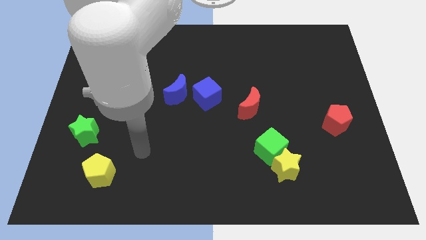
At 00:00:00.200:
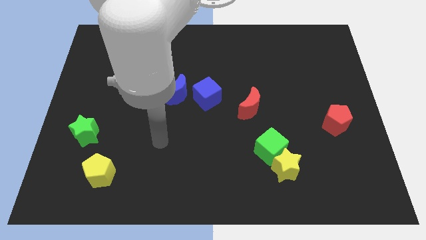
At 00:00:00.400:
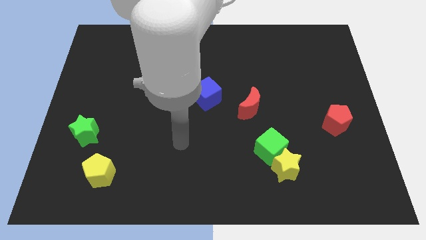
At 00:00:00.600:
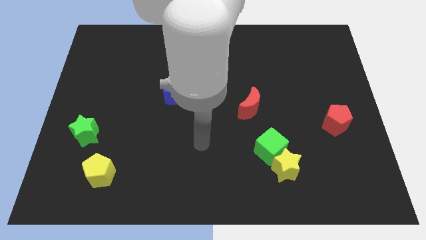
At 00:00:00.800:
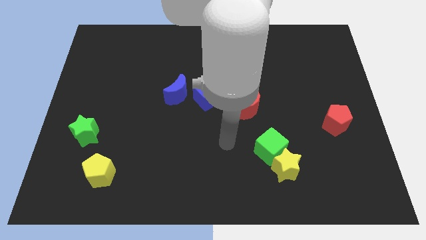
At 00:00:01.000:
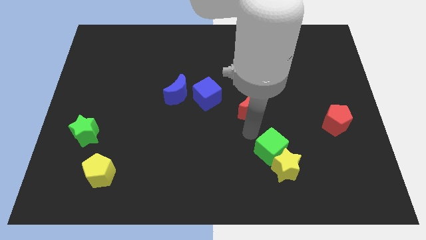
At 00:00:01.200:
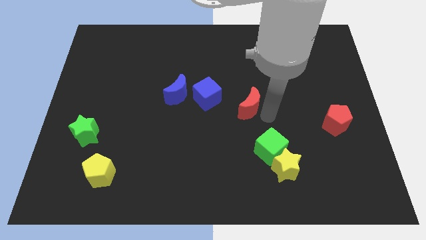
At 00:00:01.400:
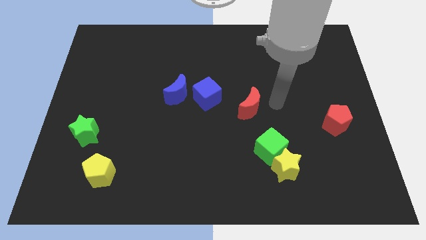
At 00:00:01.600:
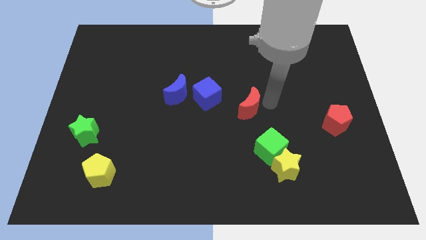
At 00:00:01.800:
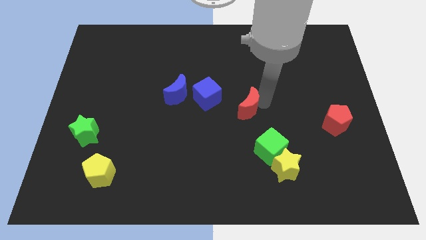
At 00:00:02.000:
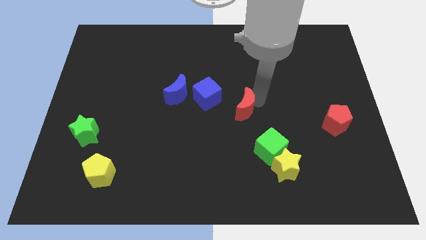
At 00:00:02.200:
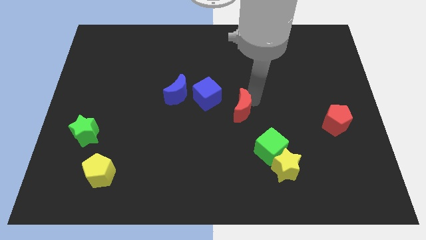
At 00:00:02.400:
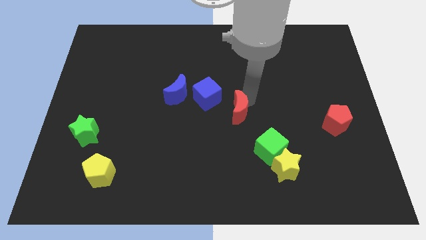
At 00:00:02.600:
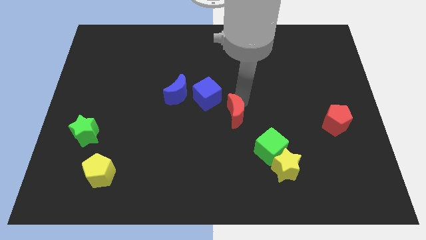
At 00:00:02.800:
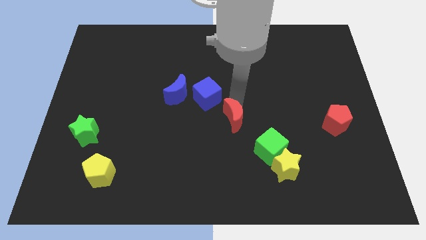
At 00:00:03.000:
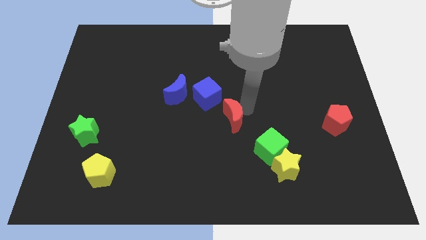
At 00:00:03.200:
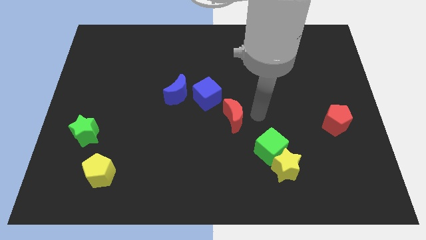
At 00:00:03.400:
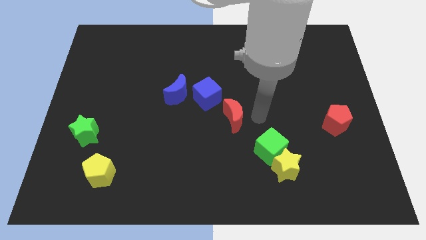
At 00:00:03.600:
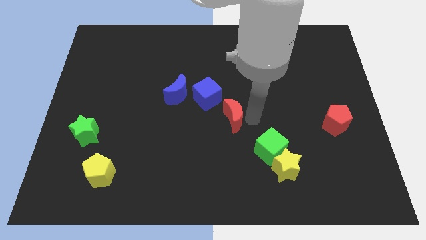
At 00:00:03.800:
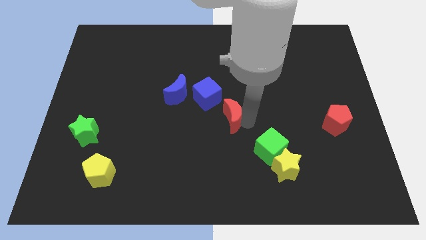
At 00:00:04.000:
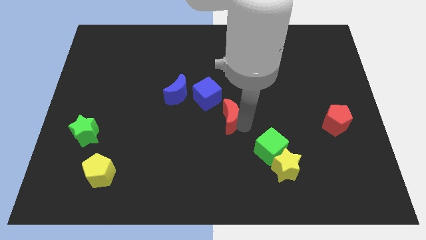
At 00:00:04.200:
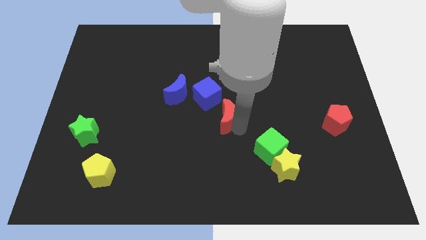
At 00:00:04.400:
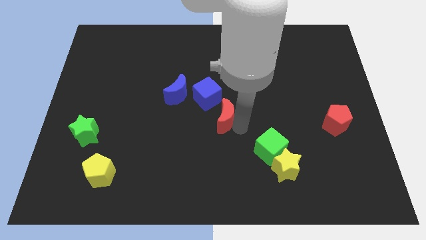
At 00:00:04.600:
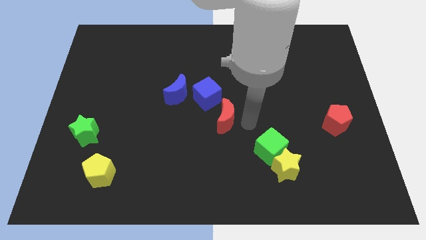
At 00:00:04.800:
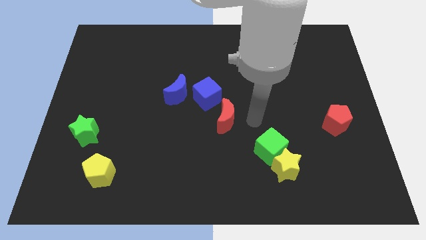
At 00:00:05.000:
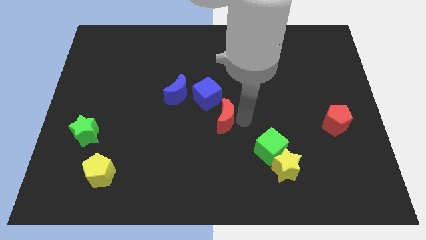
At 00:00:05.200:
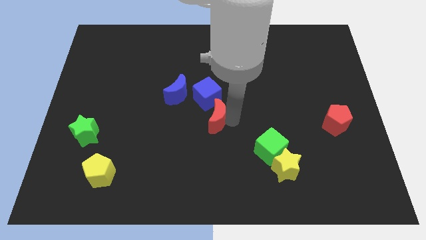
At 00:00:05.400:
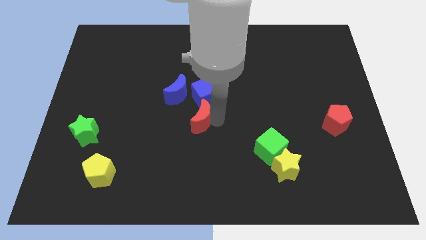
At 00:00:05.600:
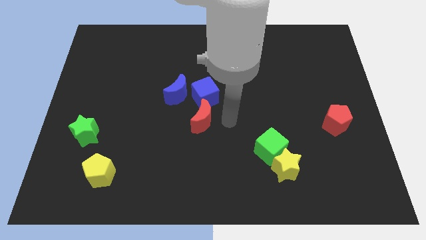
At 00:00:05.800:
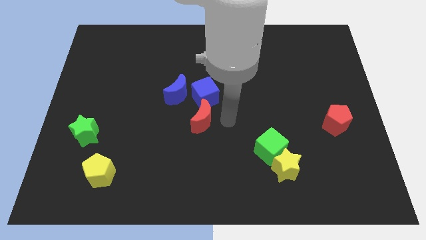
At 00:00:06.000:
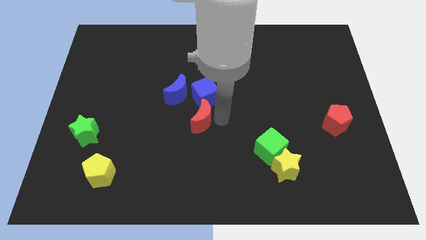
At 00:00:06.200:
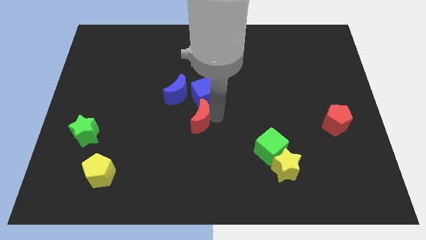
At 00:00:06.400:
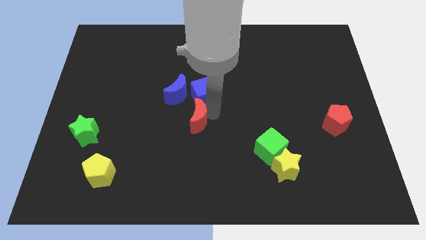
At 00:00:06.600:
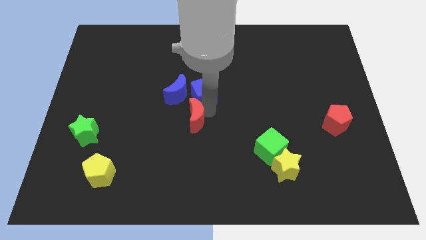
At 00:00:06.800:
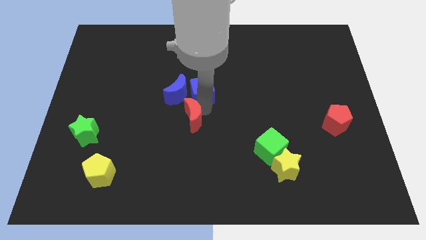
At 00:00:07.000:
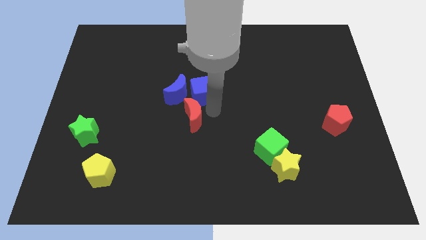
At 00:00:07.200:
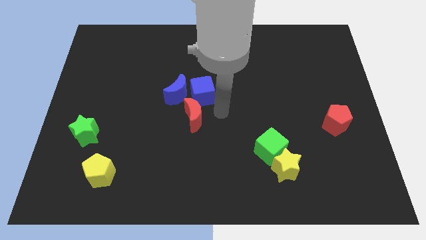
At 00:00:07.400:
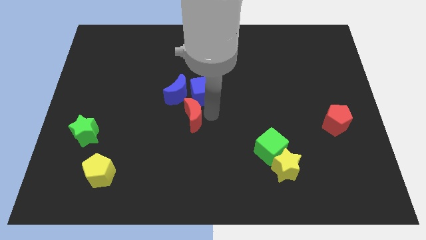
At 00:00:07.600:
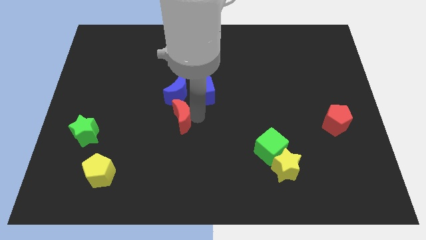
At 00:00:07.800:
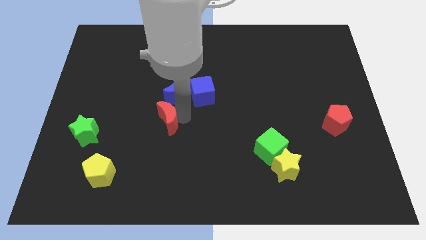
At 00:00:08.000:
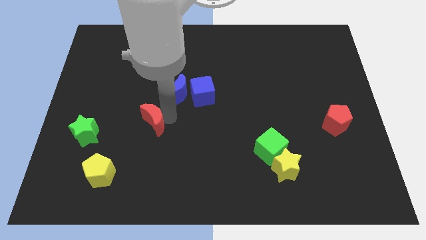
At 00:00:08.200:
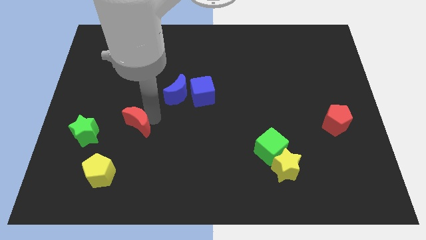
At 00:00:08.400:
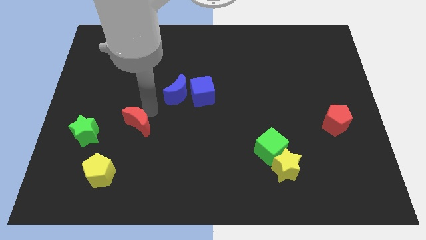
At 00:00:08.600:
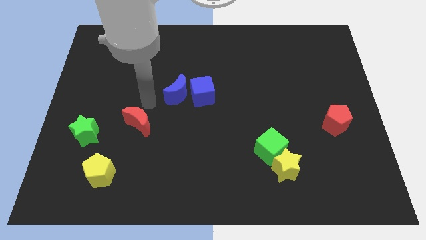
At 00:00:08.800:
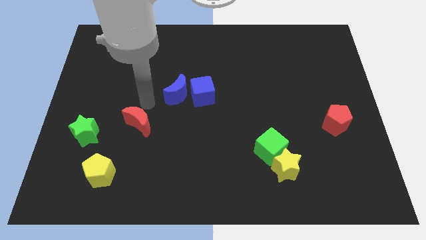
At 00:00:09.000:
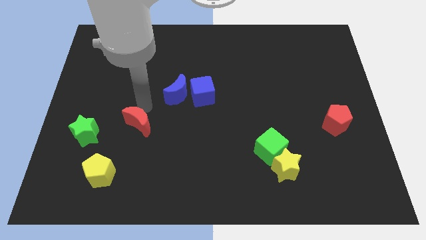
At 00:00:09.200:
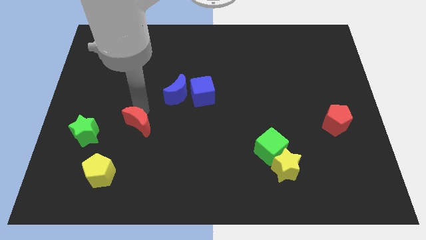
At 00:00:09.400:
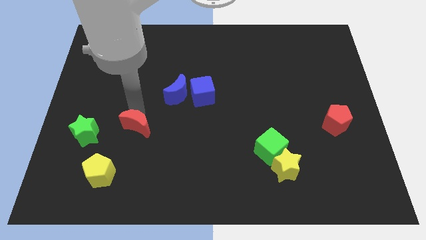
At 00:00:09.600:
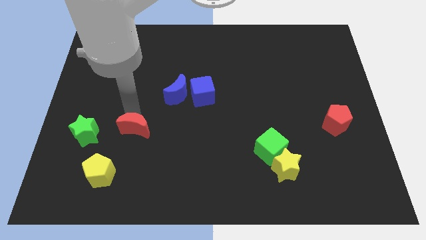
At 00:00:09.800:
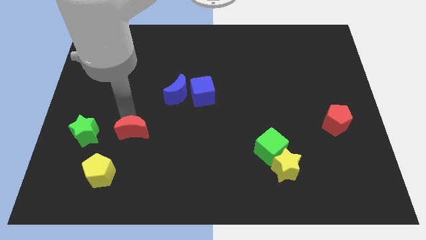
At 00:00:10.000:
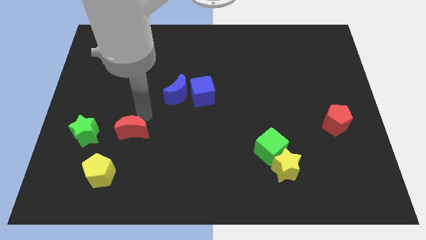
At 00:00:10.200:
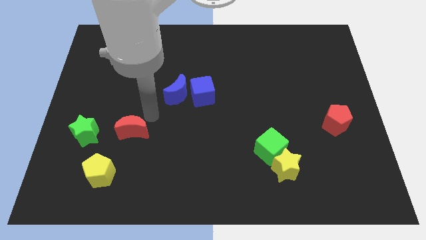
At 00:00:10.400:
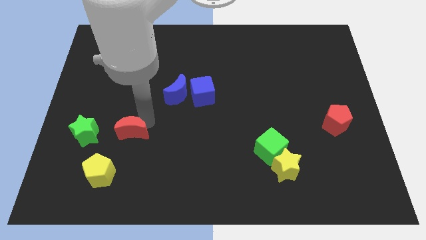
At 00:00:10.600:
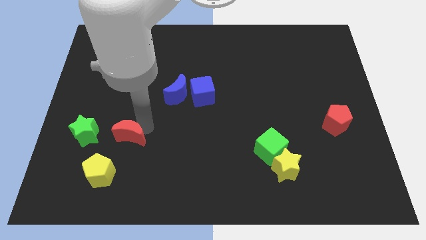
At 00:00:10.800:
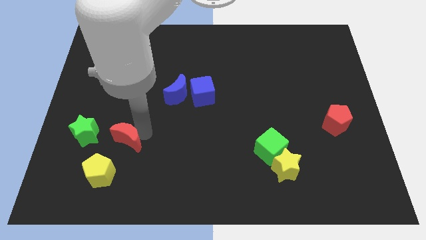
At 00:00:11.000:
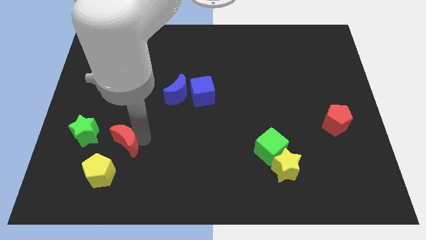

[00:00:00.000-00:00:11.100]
slide the red moon to the bottom right of the green star

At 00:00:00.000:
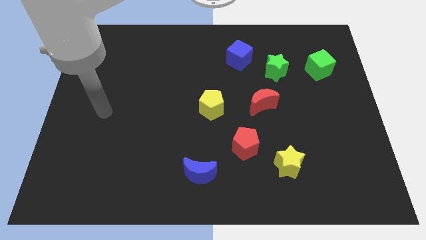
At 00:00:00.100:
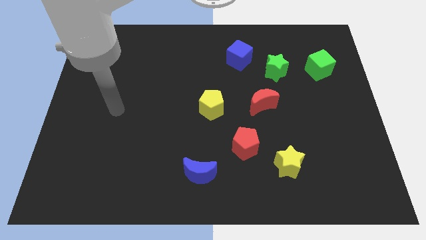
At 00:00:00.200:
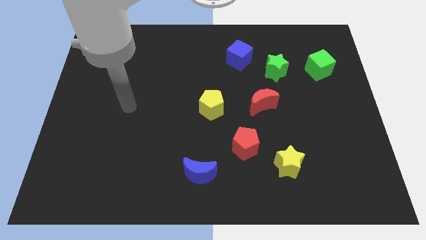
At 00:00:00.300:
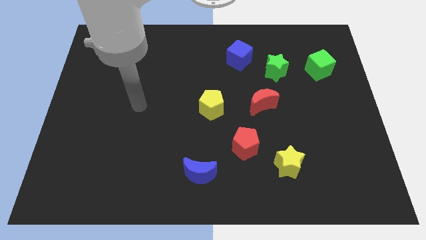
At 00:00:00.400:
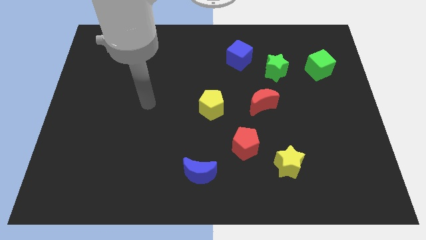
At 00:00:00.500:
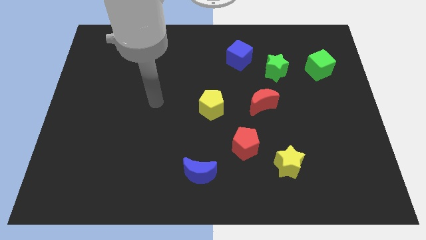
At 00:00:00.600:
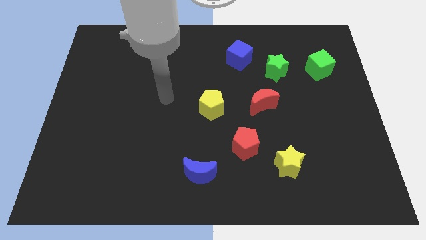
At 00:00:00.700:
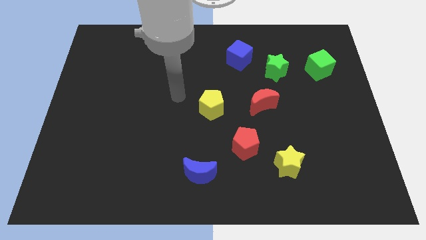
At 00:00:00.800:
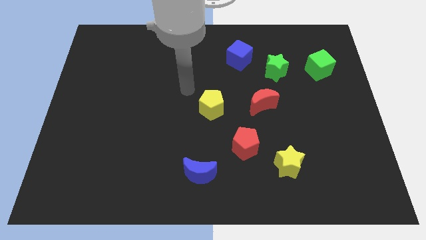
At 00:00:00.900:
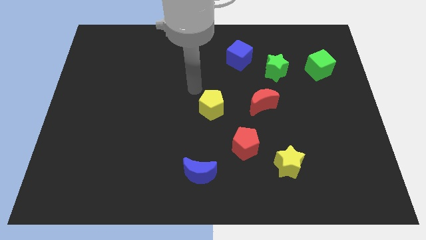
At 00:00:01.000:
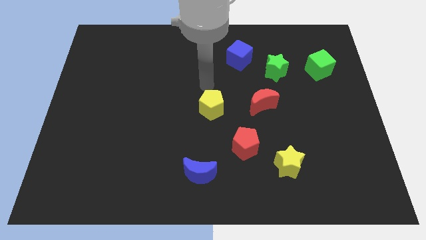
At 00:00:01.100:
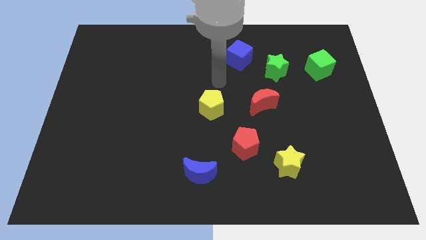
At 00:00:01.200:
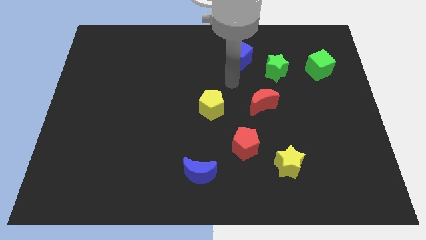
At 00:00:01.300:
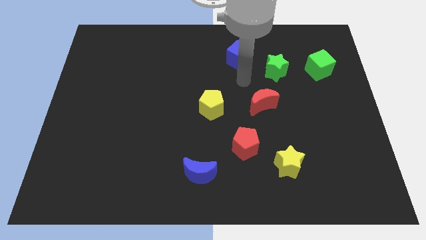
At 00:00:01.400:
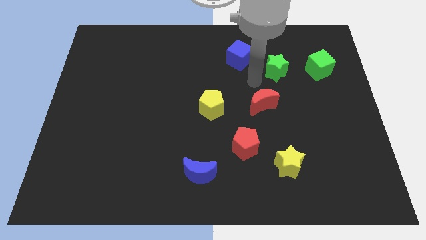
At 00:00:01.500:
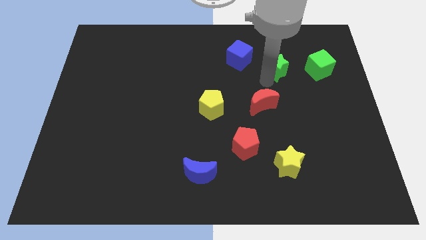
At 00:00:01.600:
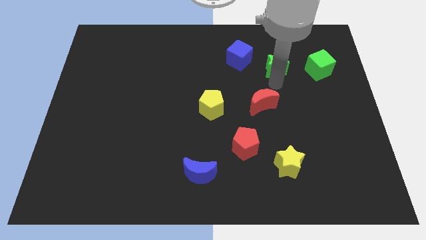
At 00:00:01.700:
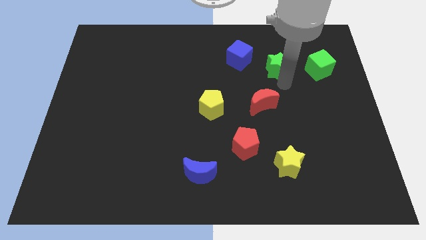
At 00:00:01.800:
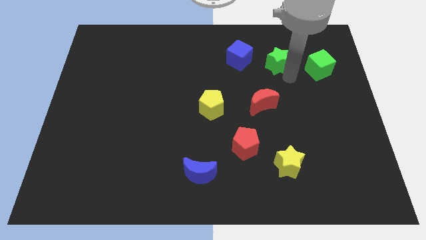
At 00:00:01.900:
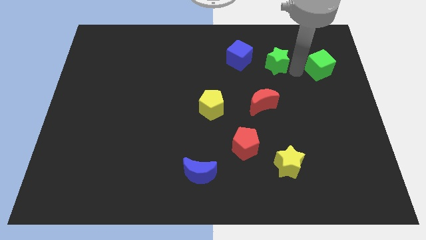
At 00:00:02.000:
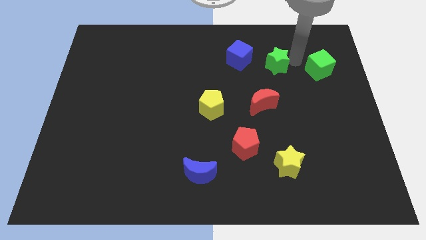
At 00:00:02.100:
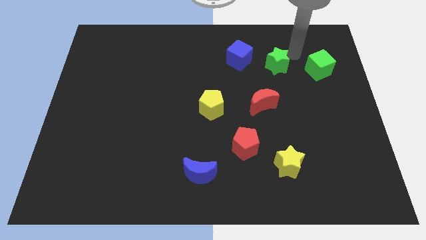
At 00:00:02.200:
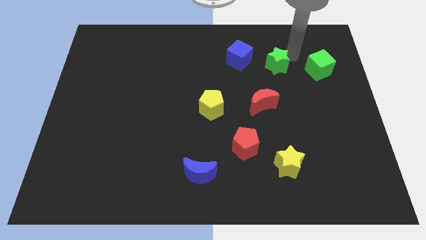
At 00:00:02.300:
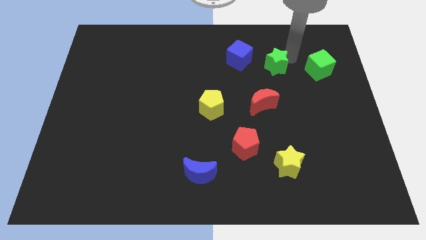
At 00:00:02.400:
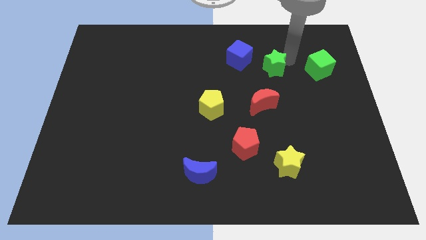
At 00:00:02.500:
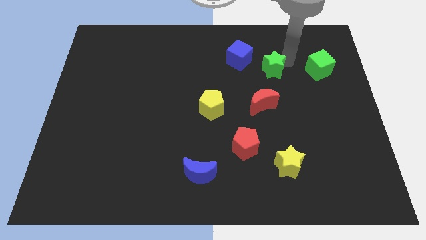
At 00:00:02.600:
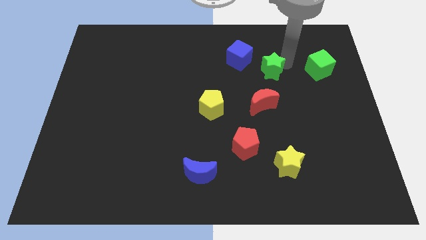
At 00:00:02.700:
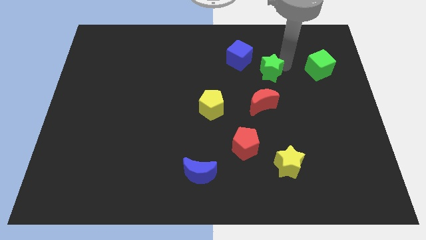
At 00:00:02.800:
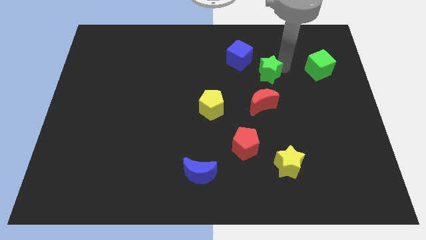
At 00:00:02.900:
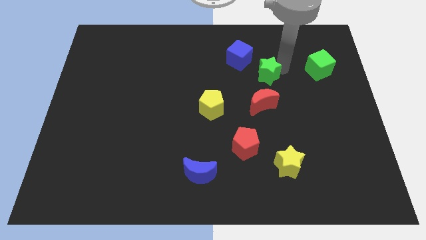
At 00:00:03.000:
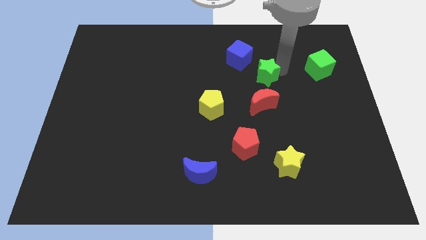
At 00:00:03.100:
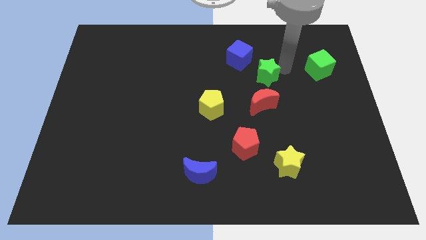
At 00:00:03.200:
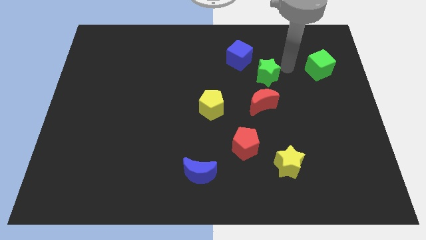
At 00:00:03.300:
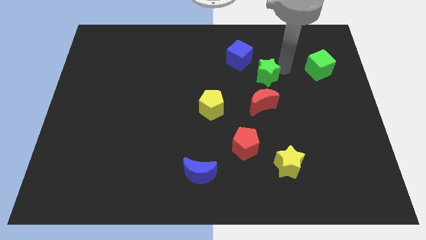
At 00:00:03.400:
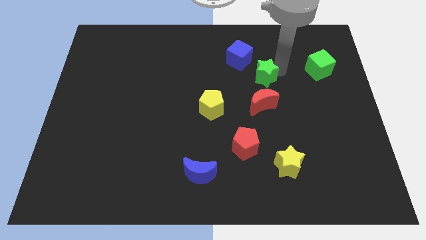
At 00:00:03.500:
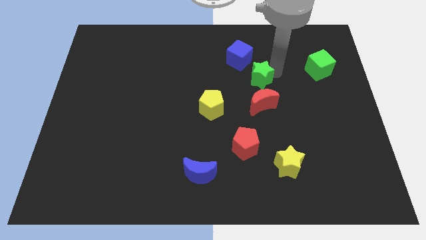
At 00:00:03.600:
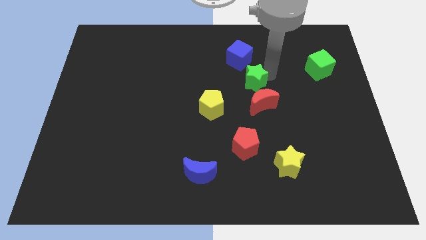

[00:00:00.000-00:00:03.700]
put the green star to the top left side of the red moon
